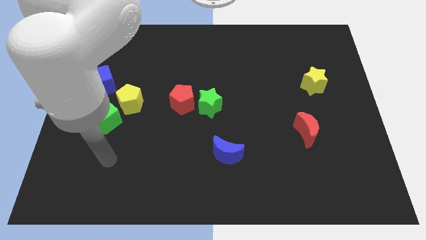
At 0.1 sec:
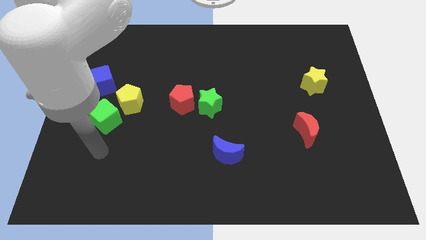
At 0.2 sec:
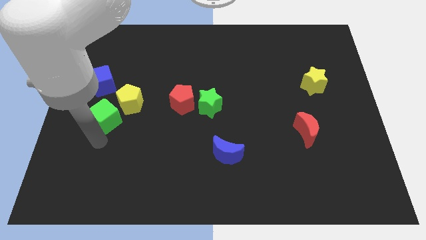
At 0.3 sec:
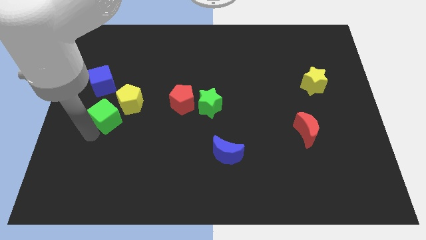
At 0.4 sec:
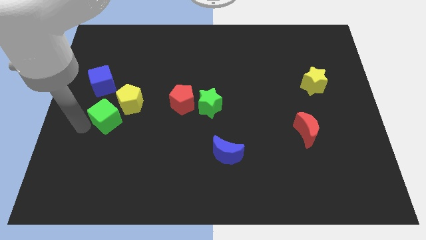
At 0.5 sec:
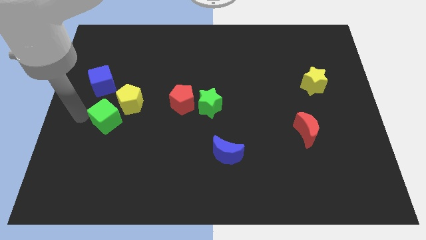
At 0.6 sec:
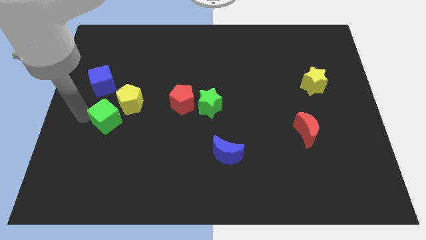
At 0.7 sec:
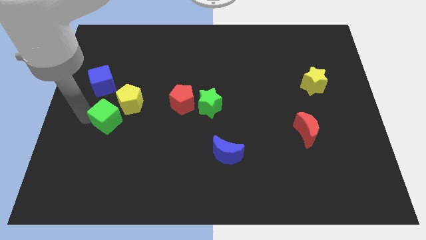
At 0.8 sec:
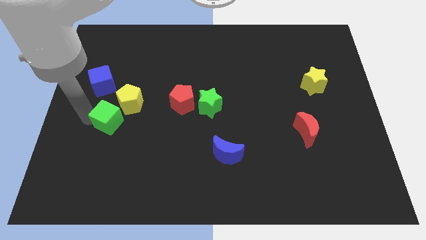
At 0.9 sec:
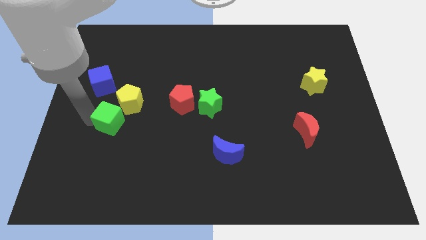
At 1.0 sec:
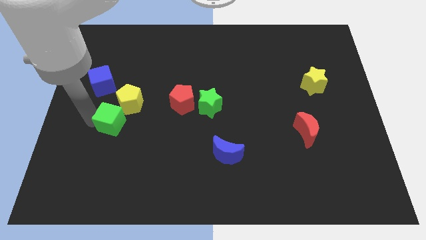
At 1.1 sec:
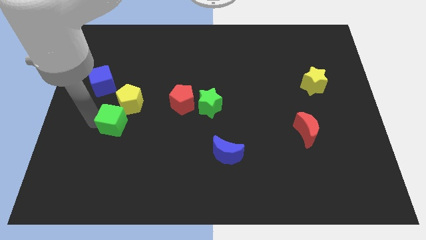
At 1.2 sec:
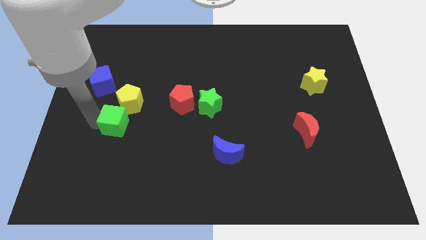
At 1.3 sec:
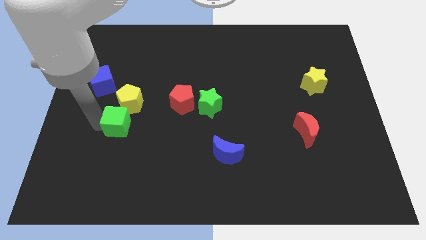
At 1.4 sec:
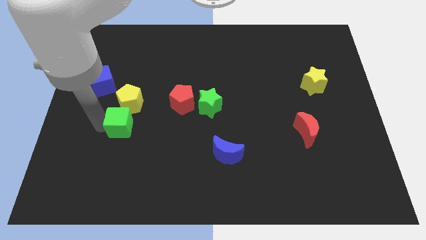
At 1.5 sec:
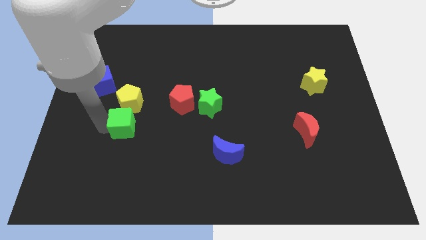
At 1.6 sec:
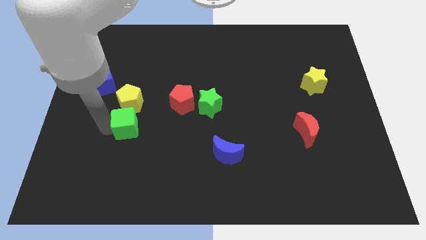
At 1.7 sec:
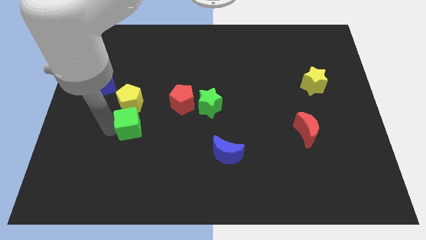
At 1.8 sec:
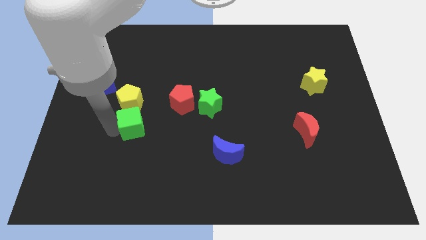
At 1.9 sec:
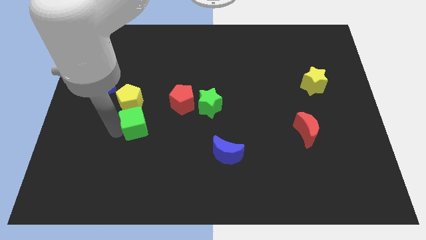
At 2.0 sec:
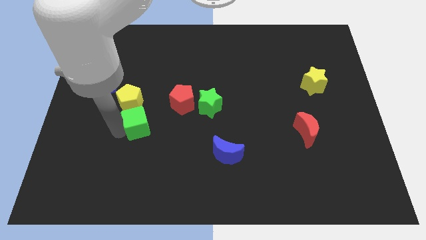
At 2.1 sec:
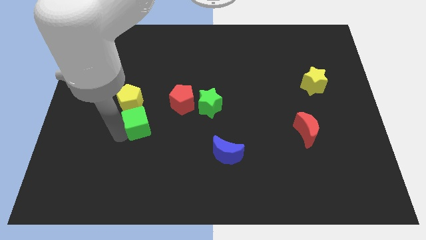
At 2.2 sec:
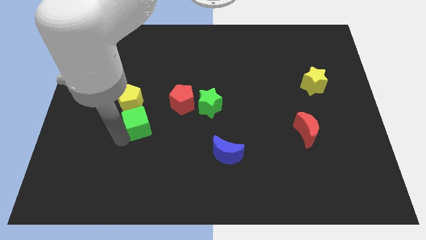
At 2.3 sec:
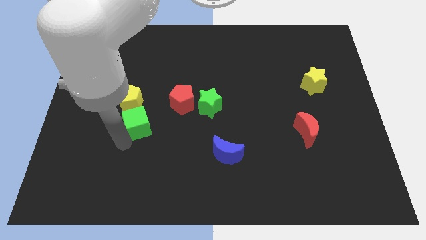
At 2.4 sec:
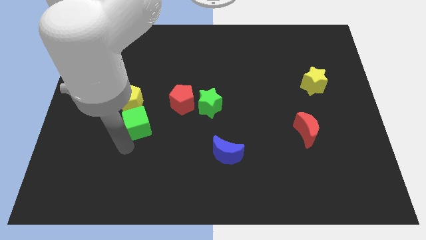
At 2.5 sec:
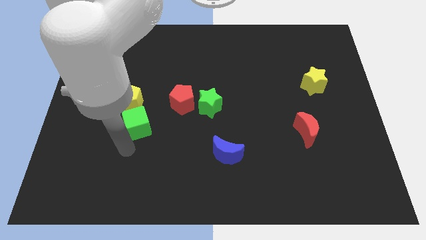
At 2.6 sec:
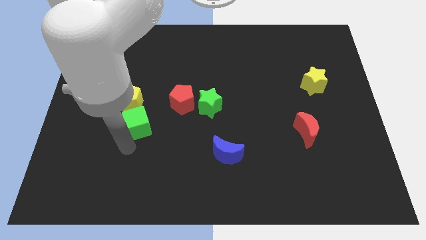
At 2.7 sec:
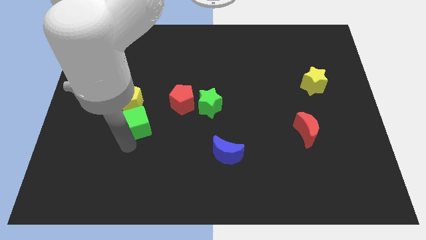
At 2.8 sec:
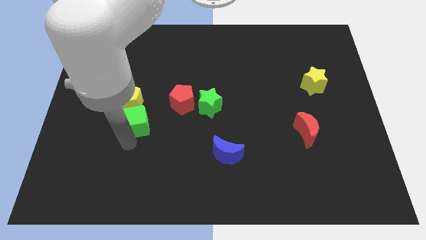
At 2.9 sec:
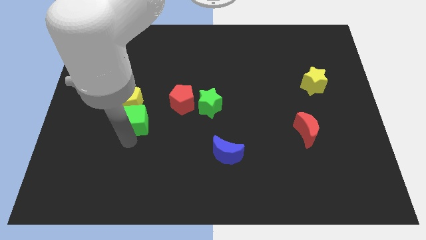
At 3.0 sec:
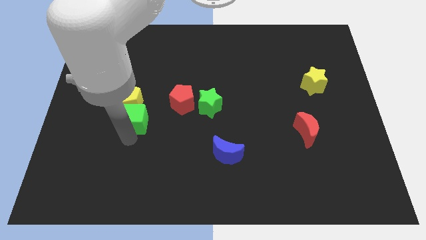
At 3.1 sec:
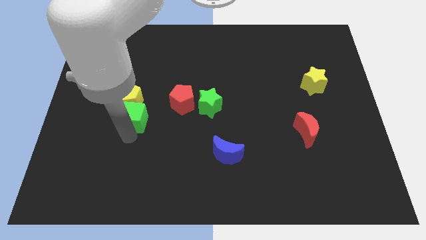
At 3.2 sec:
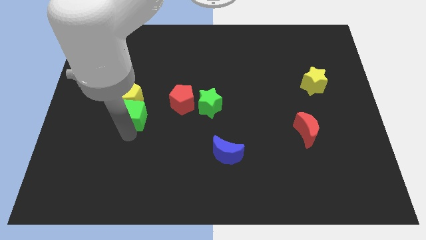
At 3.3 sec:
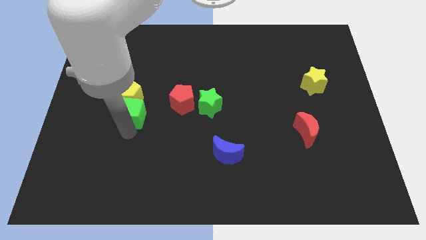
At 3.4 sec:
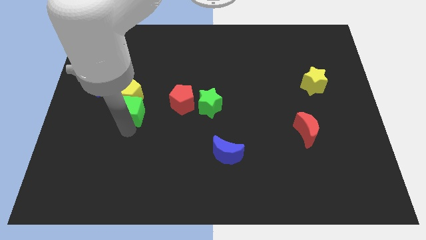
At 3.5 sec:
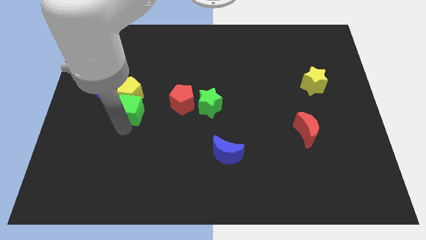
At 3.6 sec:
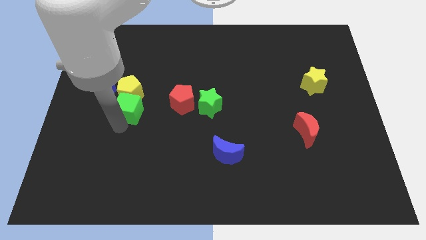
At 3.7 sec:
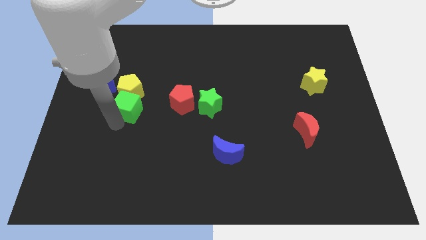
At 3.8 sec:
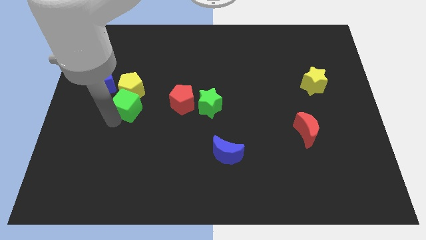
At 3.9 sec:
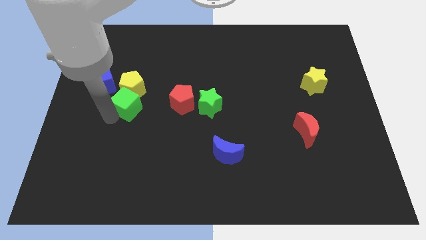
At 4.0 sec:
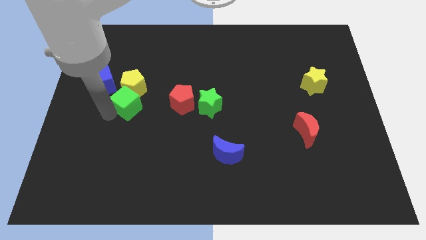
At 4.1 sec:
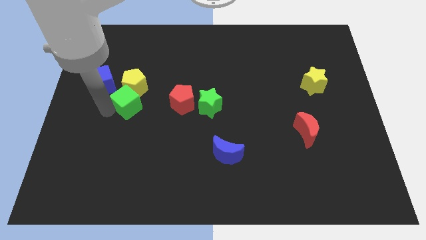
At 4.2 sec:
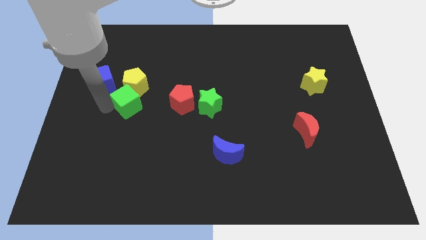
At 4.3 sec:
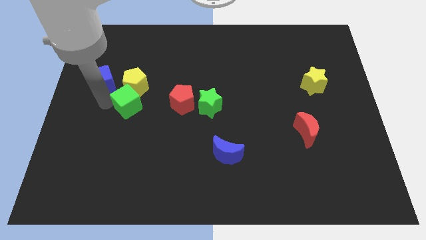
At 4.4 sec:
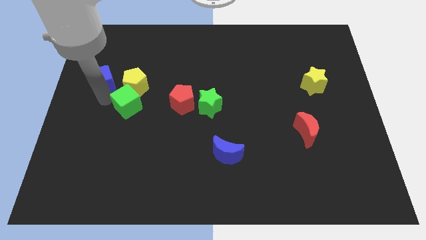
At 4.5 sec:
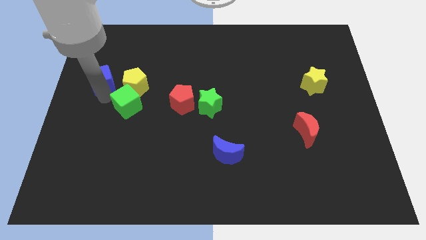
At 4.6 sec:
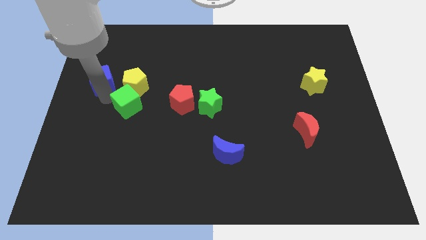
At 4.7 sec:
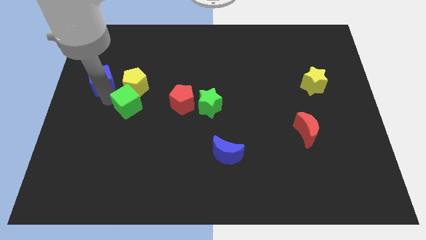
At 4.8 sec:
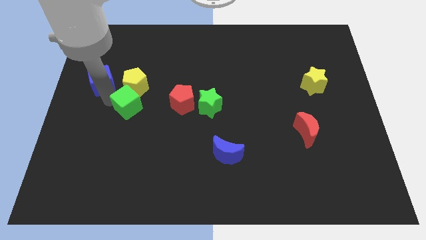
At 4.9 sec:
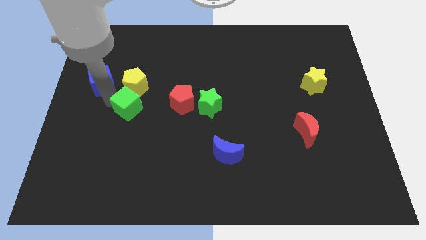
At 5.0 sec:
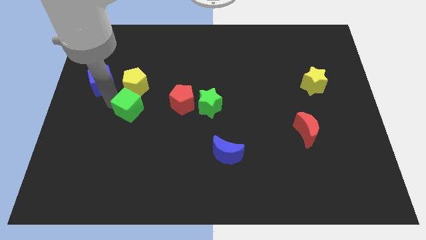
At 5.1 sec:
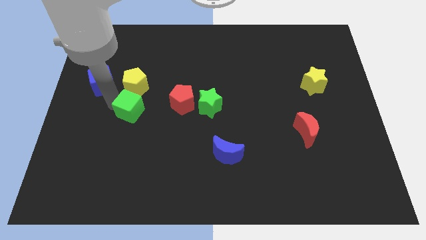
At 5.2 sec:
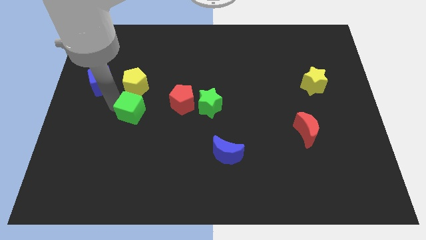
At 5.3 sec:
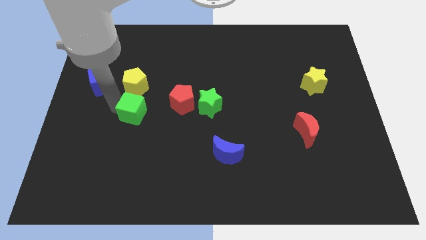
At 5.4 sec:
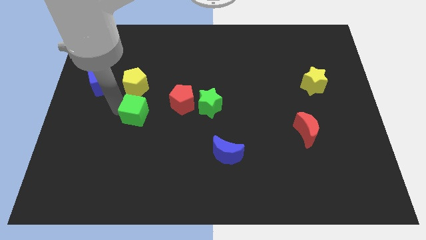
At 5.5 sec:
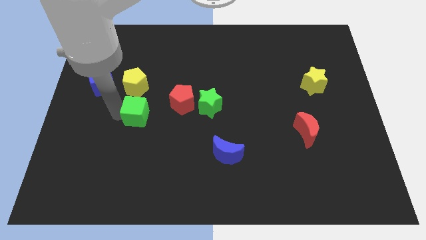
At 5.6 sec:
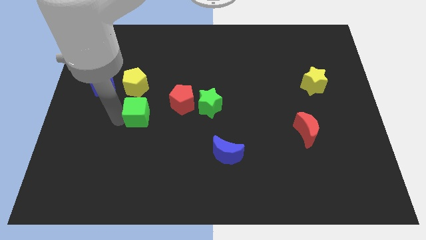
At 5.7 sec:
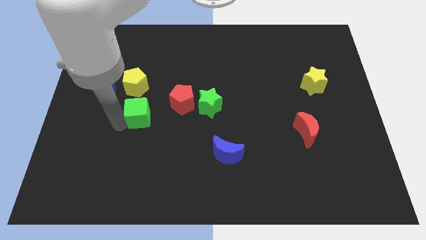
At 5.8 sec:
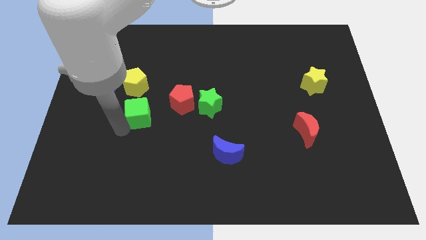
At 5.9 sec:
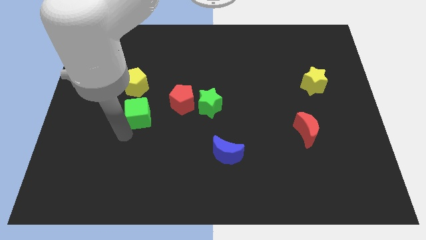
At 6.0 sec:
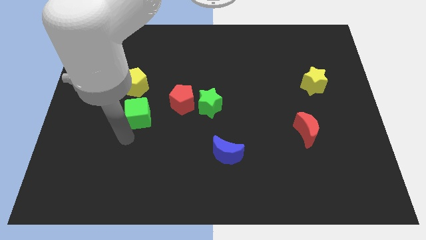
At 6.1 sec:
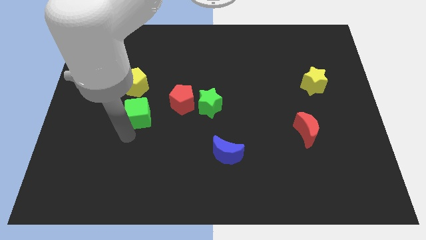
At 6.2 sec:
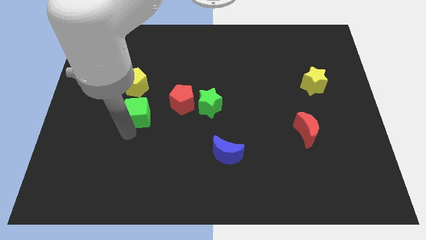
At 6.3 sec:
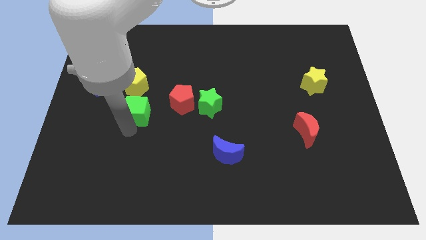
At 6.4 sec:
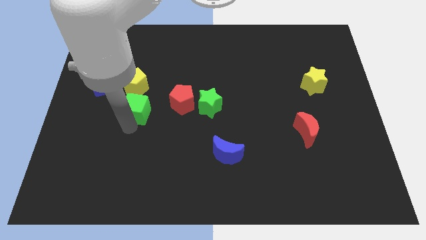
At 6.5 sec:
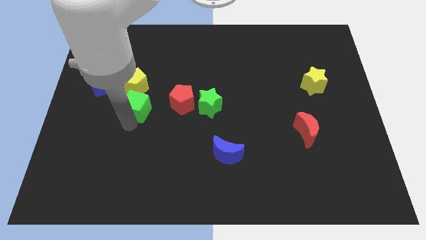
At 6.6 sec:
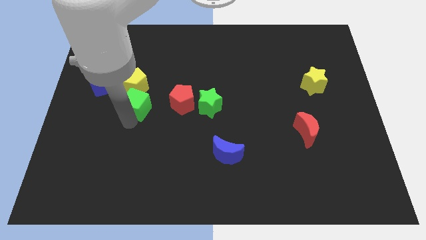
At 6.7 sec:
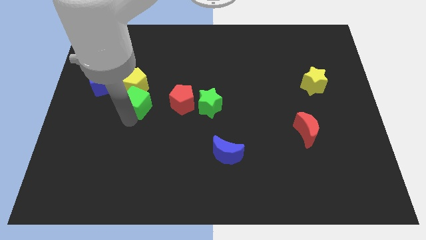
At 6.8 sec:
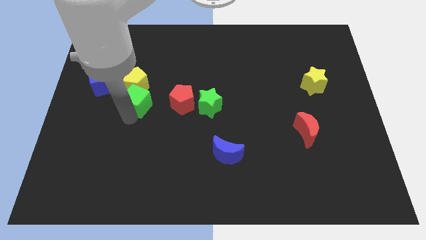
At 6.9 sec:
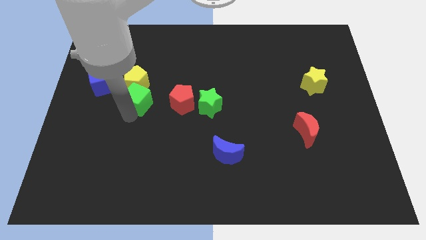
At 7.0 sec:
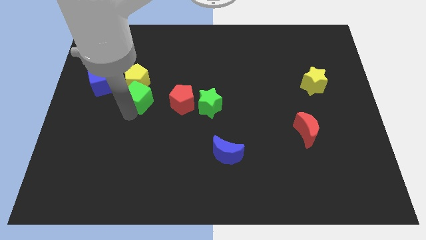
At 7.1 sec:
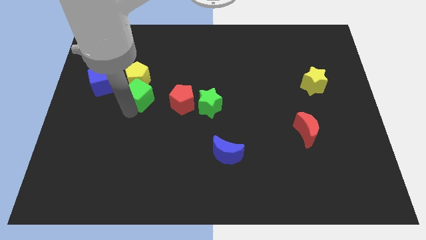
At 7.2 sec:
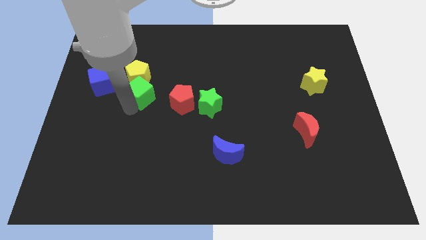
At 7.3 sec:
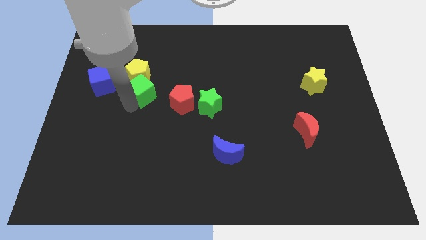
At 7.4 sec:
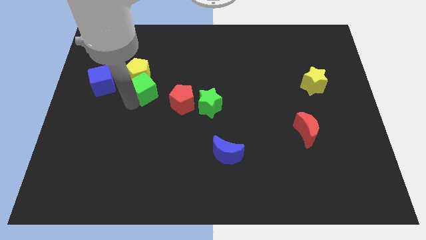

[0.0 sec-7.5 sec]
move the green cube to the top left of the red pentagon

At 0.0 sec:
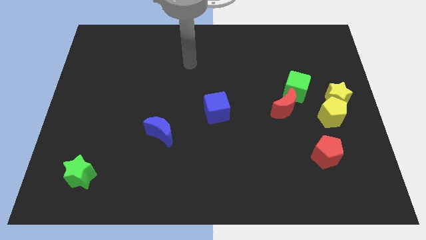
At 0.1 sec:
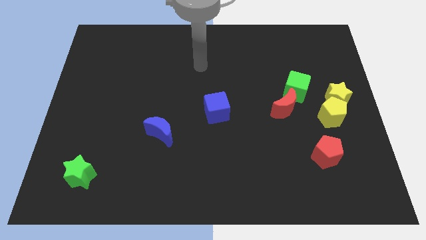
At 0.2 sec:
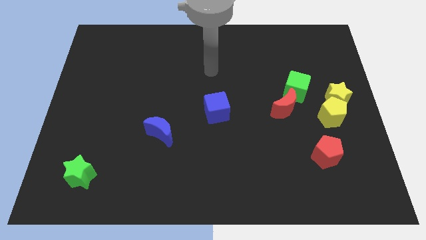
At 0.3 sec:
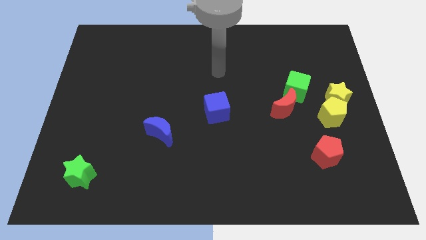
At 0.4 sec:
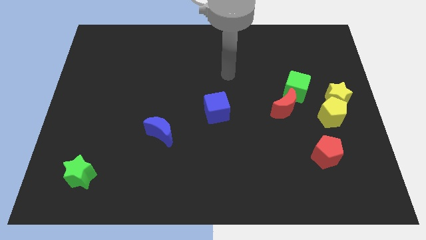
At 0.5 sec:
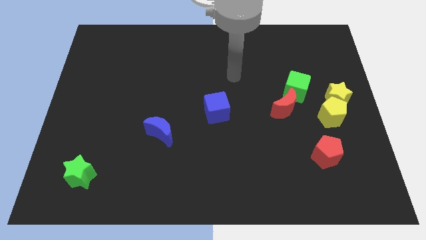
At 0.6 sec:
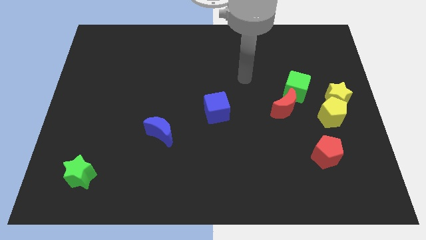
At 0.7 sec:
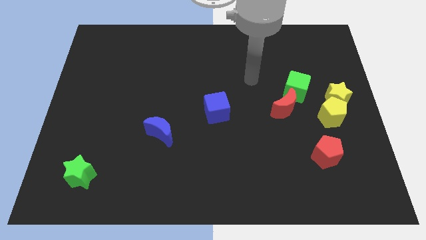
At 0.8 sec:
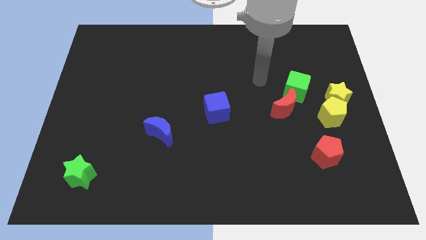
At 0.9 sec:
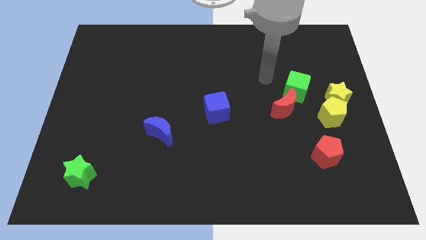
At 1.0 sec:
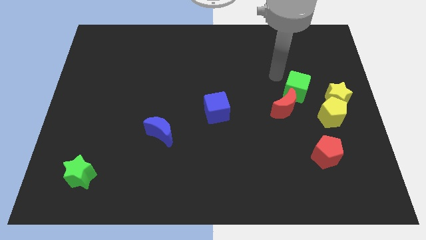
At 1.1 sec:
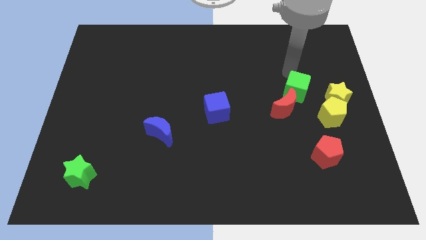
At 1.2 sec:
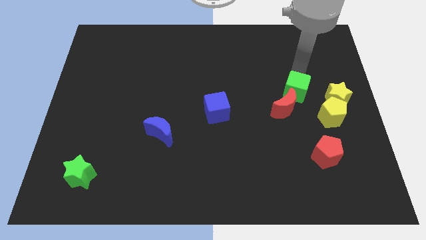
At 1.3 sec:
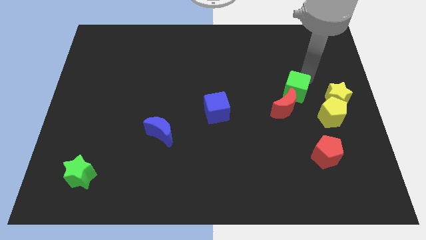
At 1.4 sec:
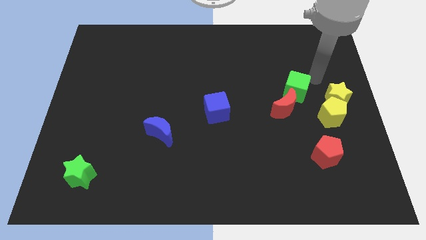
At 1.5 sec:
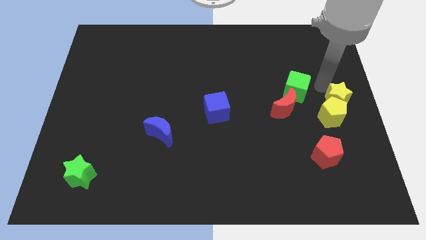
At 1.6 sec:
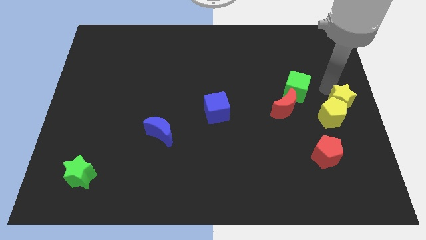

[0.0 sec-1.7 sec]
put the yellow pentagon just left of the yellow star
